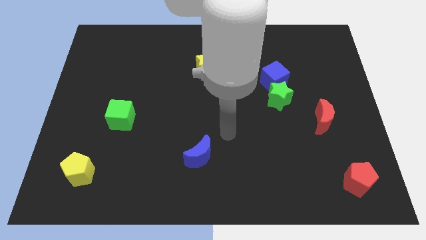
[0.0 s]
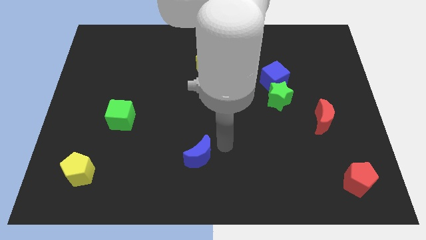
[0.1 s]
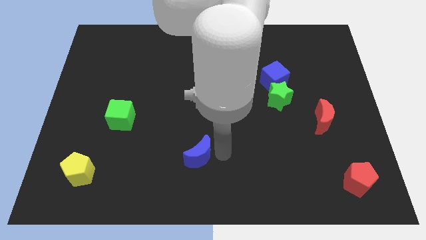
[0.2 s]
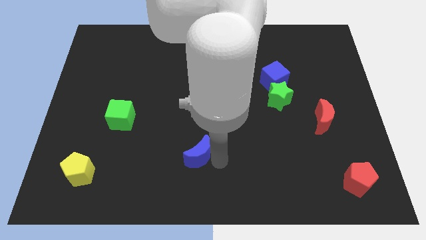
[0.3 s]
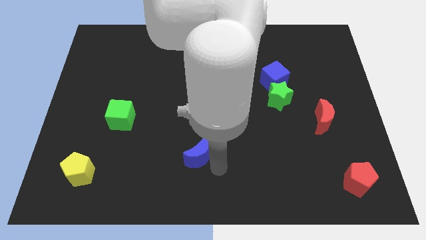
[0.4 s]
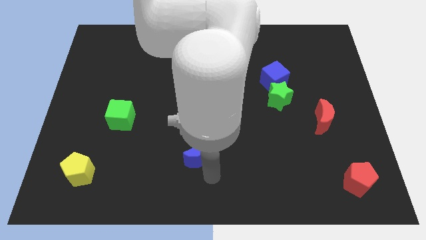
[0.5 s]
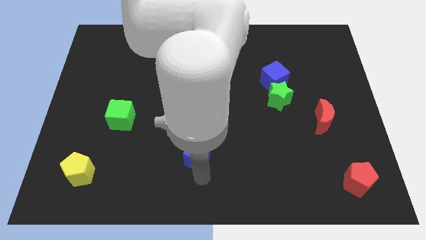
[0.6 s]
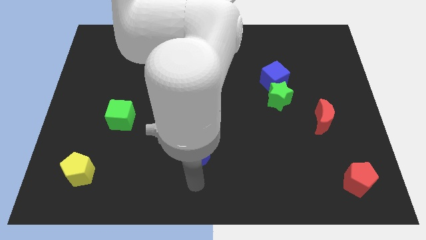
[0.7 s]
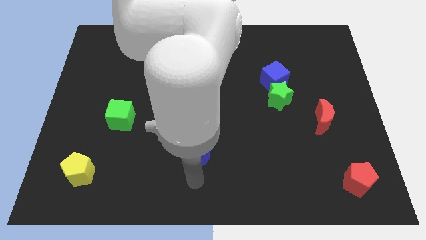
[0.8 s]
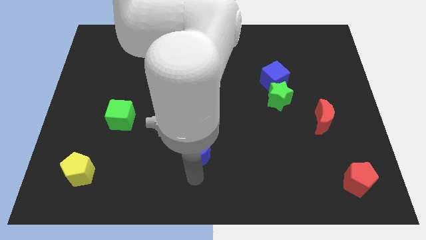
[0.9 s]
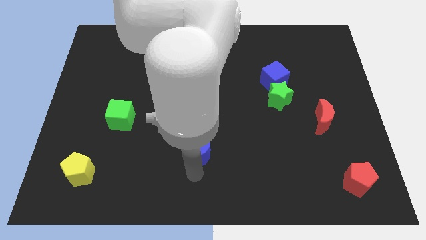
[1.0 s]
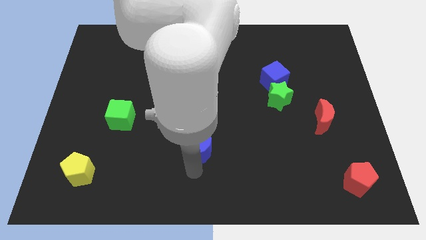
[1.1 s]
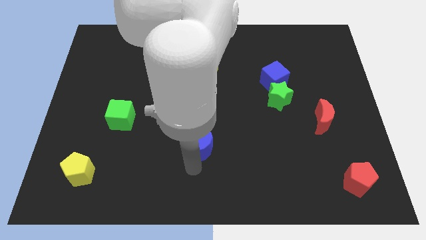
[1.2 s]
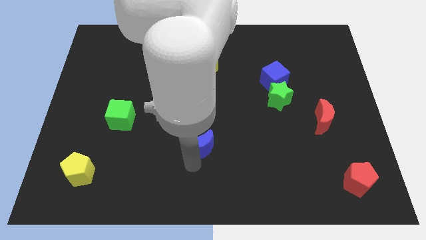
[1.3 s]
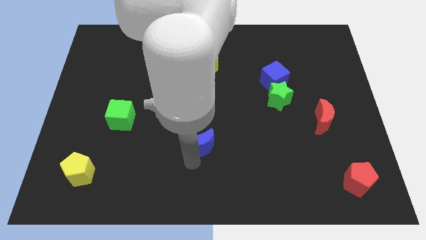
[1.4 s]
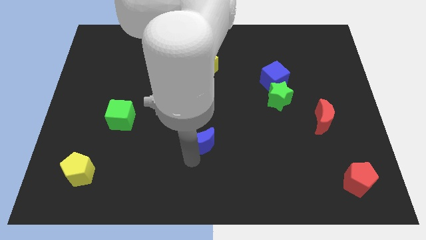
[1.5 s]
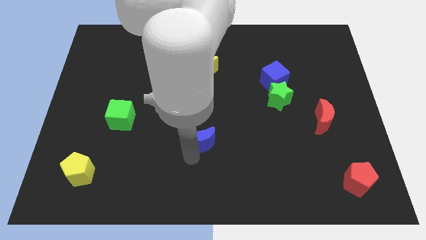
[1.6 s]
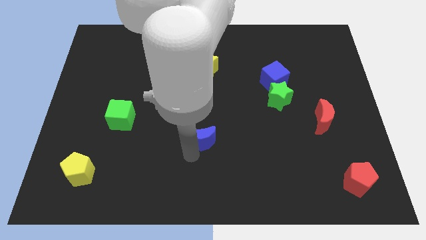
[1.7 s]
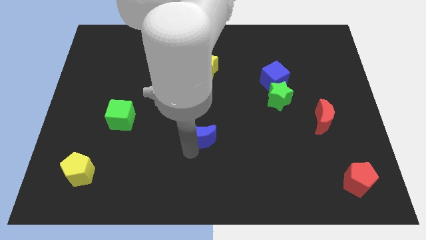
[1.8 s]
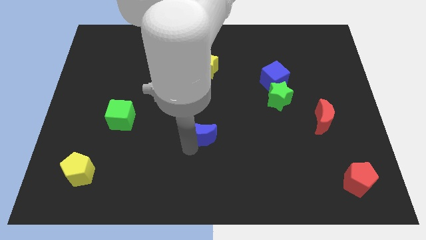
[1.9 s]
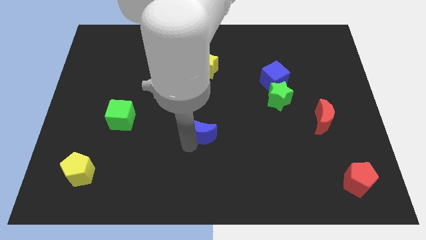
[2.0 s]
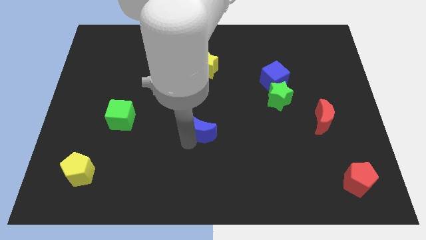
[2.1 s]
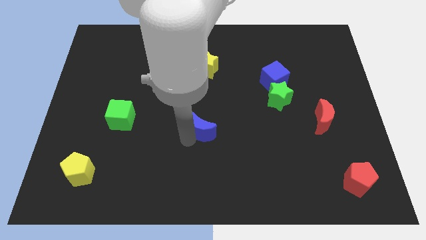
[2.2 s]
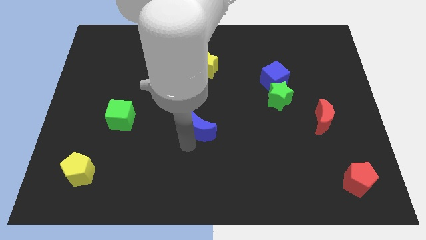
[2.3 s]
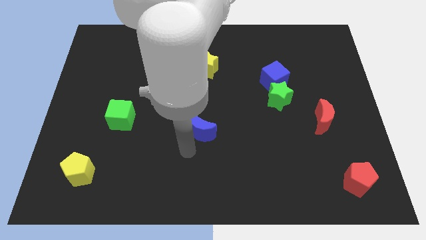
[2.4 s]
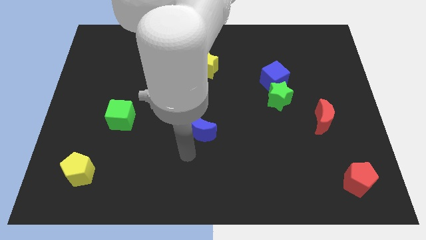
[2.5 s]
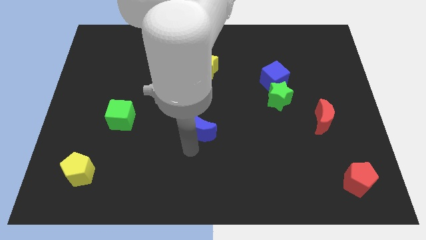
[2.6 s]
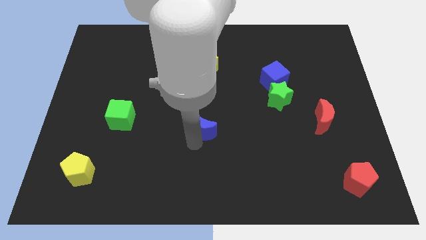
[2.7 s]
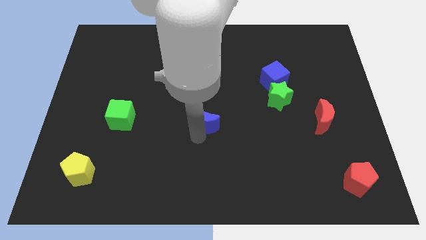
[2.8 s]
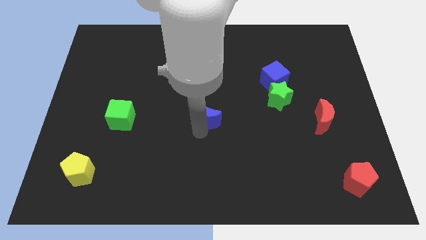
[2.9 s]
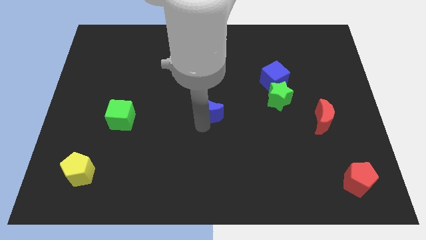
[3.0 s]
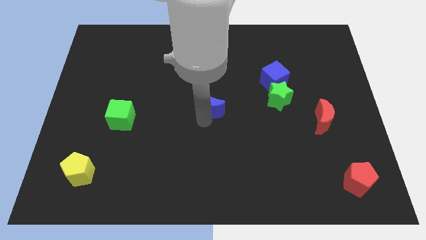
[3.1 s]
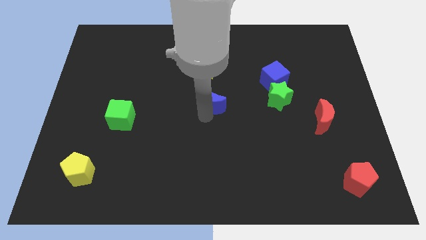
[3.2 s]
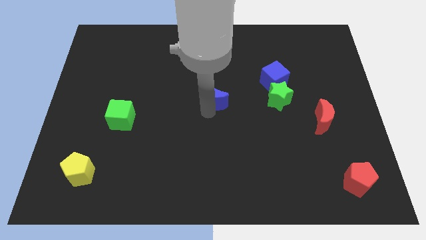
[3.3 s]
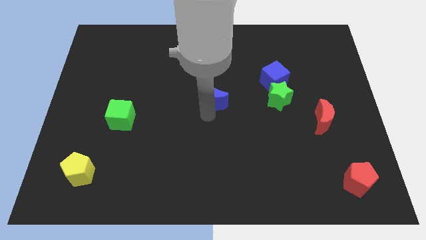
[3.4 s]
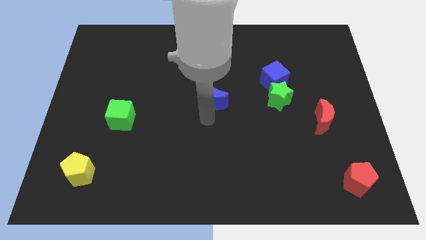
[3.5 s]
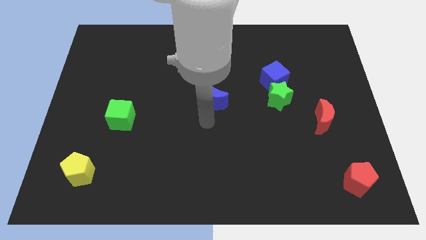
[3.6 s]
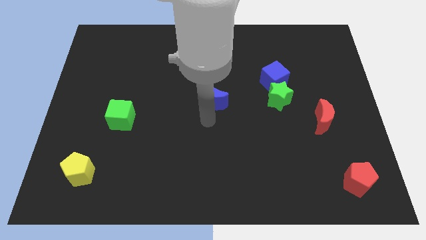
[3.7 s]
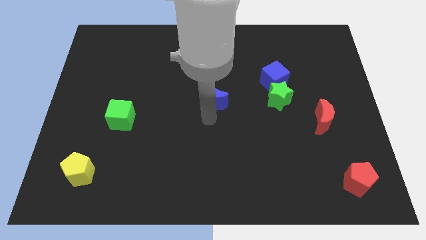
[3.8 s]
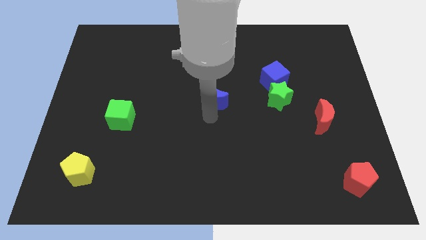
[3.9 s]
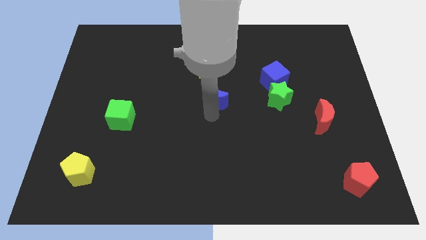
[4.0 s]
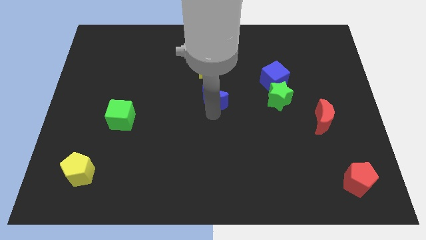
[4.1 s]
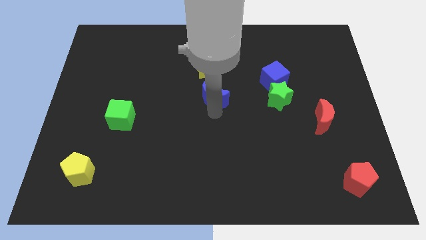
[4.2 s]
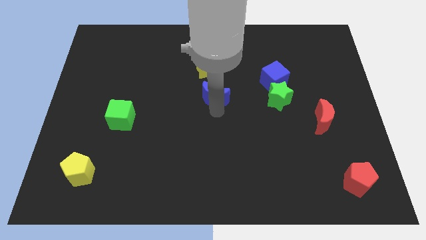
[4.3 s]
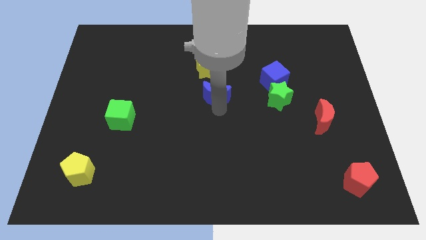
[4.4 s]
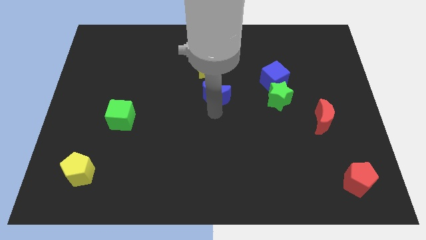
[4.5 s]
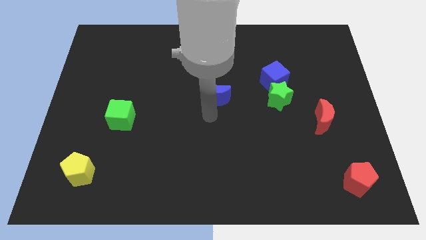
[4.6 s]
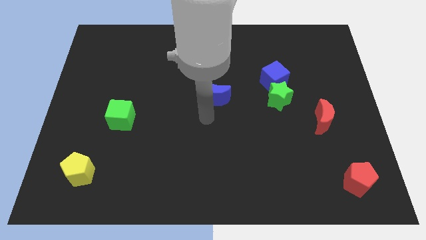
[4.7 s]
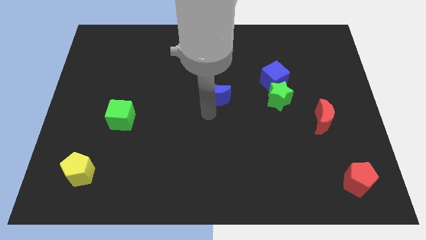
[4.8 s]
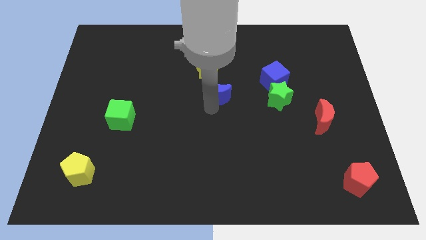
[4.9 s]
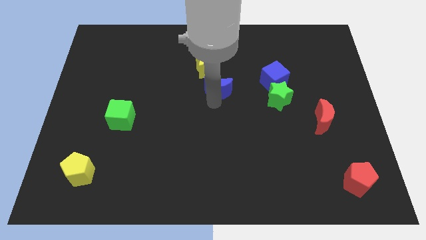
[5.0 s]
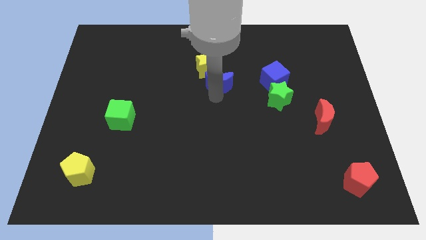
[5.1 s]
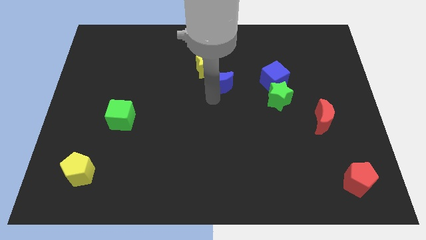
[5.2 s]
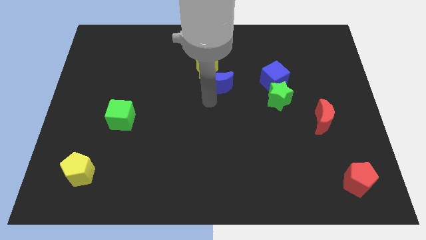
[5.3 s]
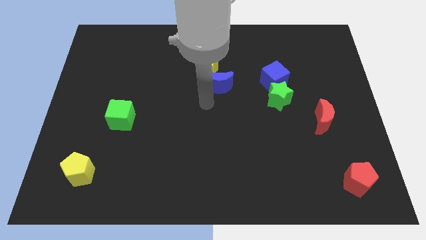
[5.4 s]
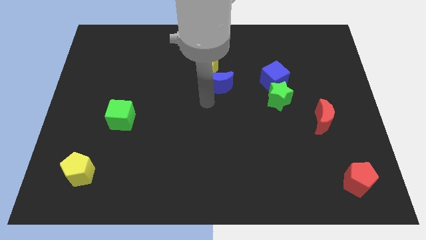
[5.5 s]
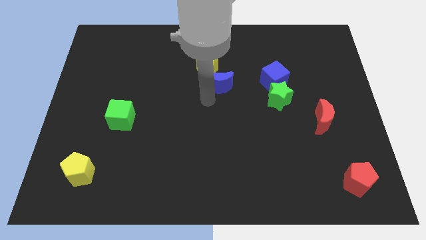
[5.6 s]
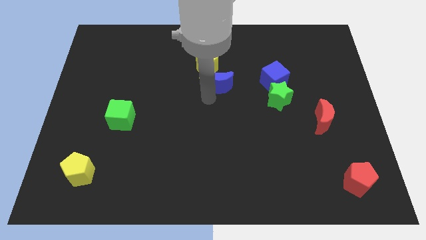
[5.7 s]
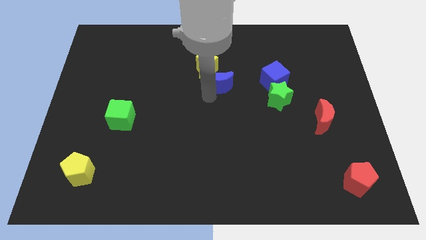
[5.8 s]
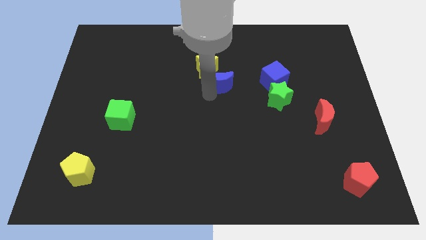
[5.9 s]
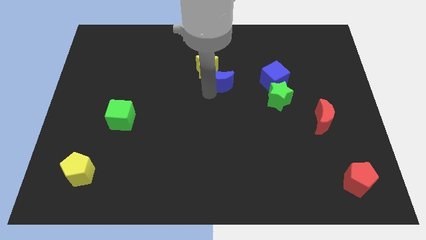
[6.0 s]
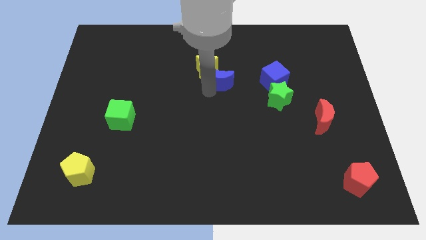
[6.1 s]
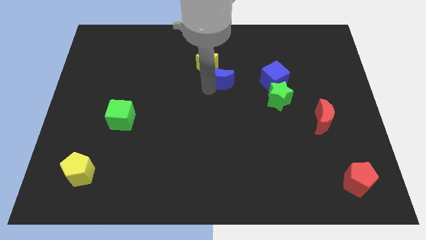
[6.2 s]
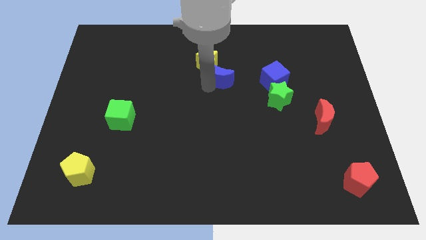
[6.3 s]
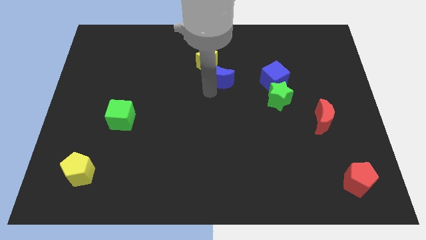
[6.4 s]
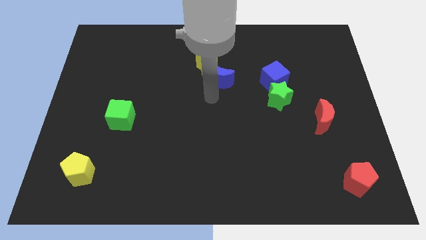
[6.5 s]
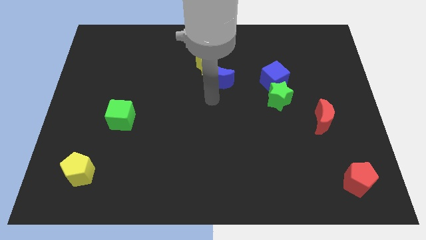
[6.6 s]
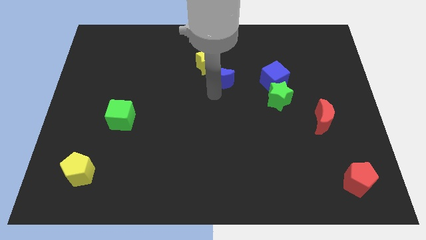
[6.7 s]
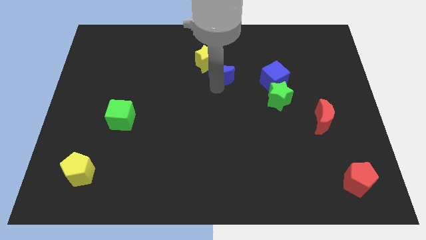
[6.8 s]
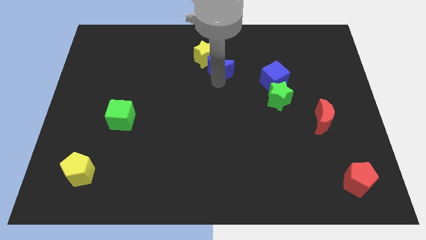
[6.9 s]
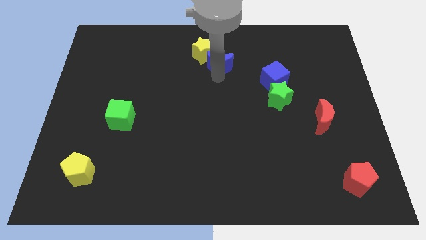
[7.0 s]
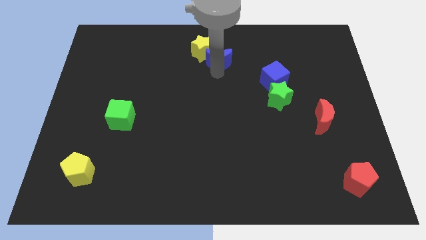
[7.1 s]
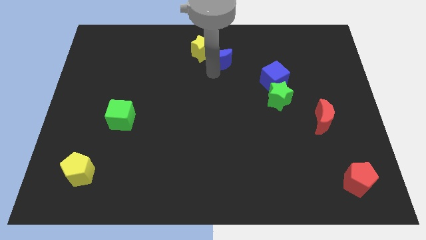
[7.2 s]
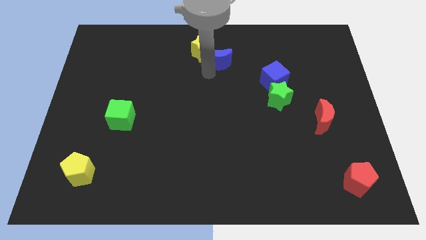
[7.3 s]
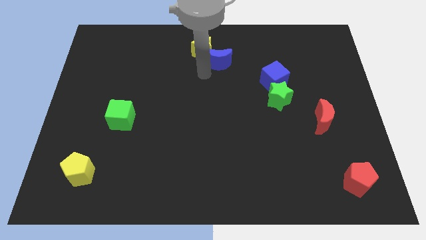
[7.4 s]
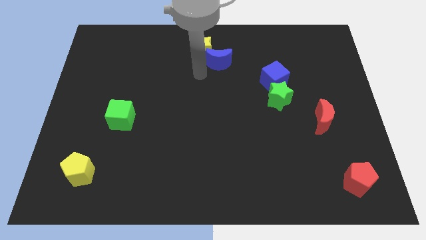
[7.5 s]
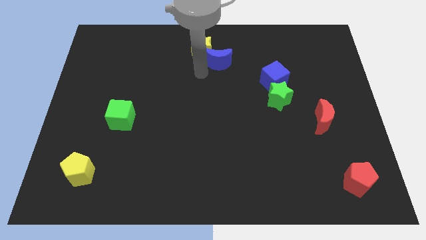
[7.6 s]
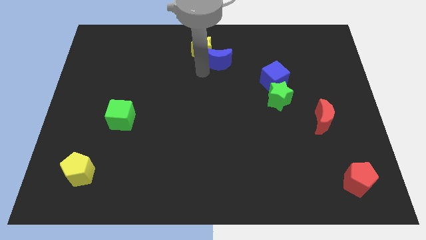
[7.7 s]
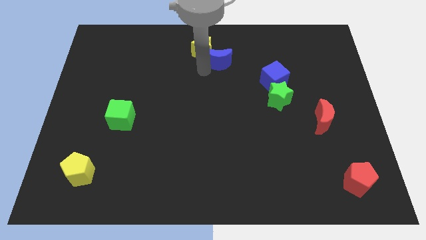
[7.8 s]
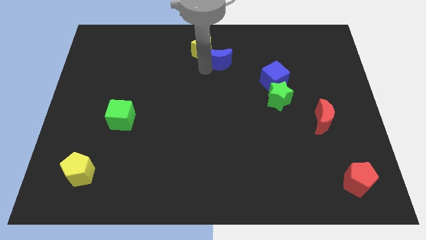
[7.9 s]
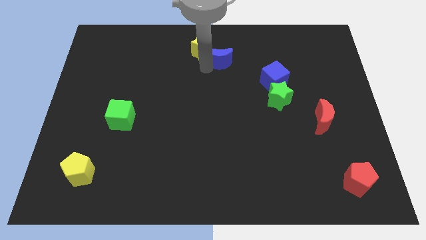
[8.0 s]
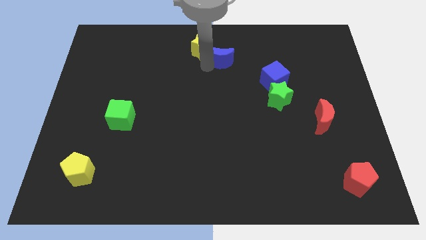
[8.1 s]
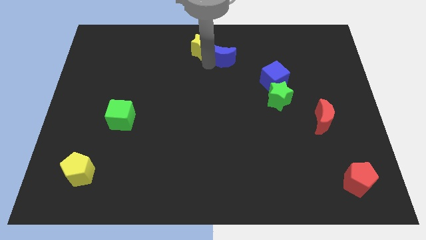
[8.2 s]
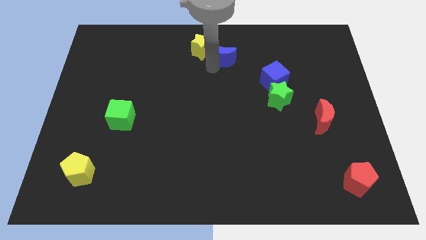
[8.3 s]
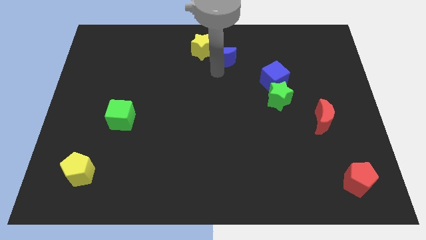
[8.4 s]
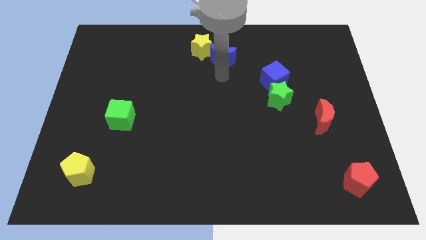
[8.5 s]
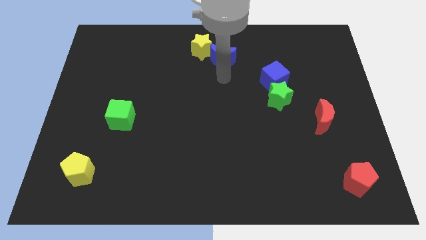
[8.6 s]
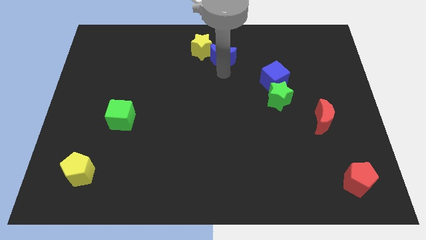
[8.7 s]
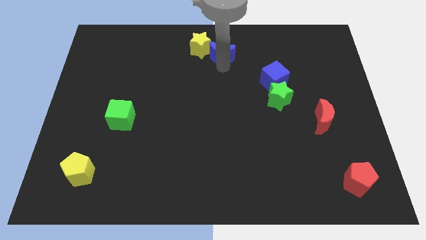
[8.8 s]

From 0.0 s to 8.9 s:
slide the blue moon to the towards your base
